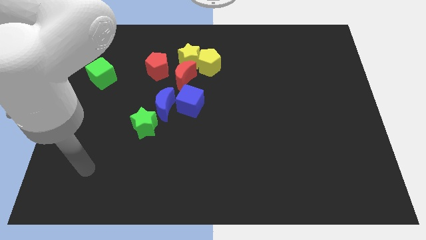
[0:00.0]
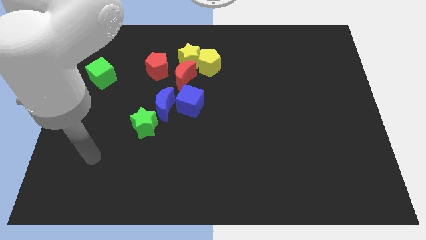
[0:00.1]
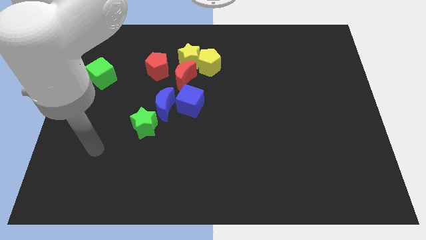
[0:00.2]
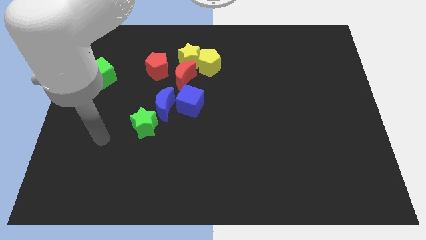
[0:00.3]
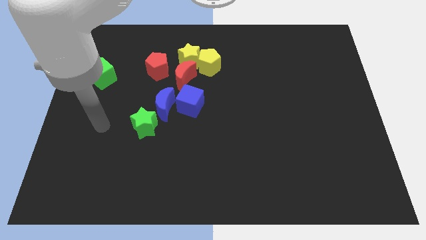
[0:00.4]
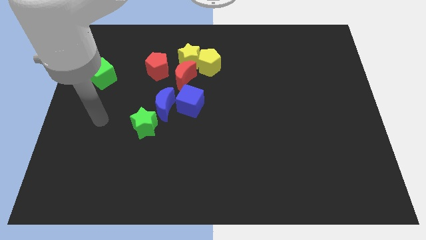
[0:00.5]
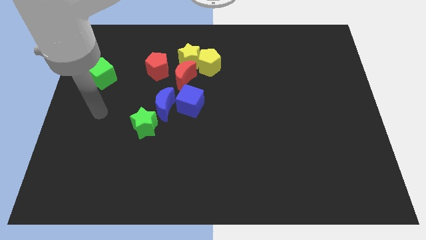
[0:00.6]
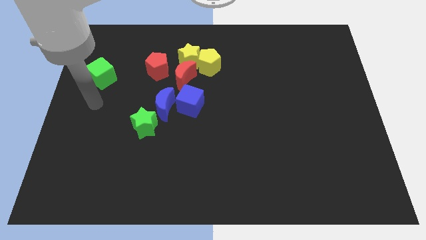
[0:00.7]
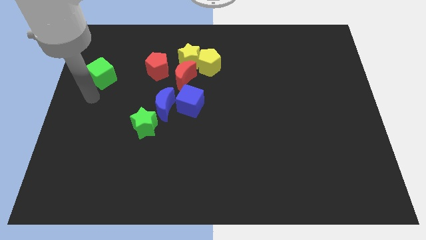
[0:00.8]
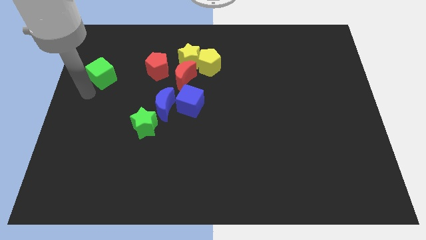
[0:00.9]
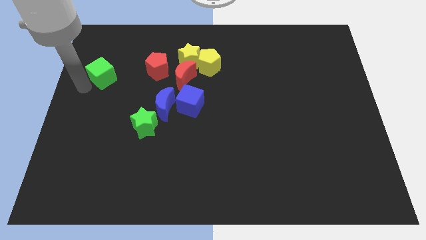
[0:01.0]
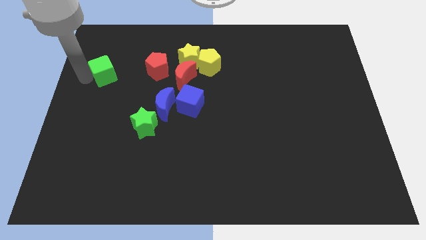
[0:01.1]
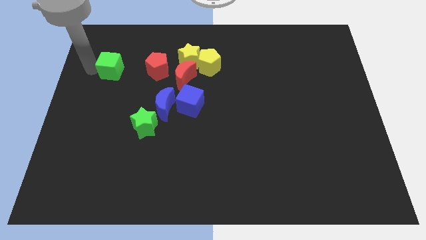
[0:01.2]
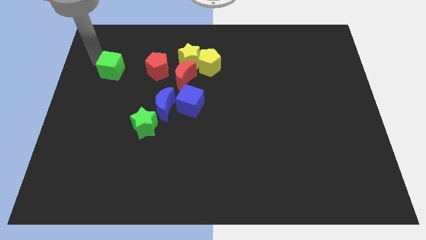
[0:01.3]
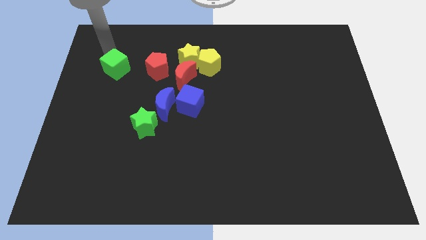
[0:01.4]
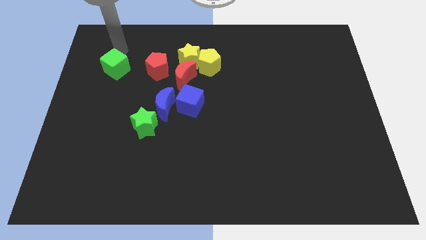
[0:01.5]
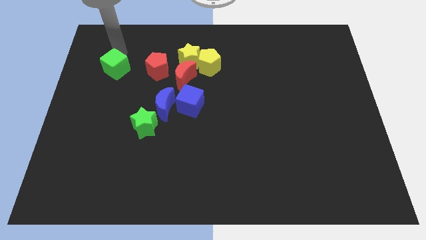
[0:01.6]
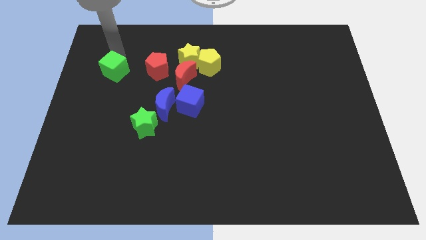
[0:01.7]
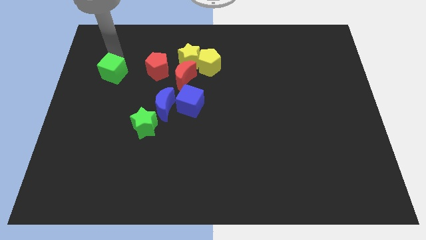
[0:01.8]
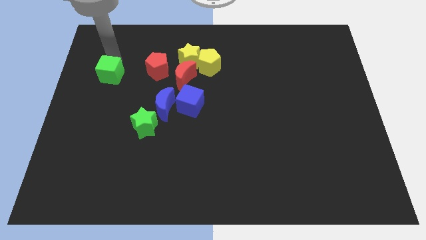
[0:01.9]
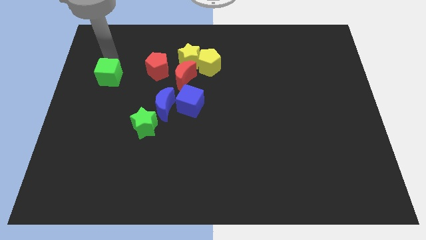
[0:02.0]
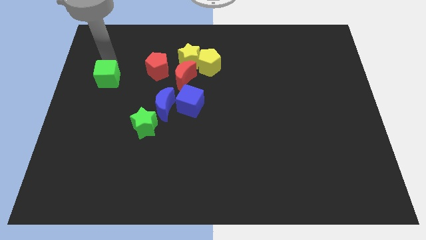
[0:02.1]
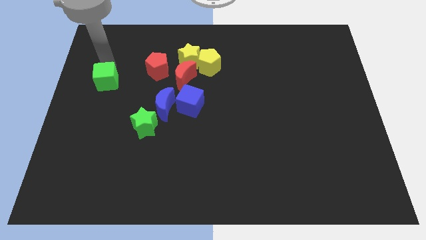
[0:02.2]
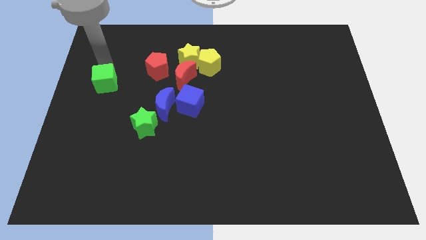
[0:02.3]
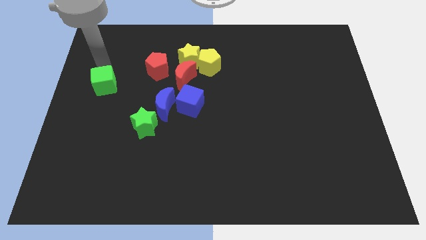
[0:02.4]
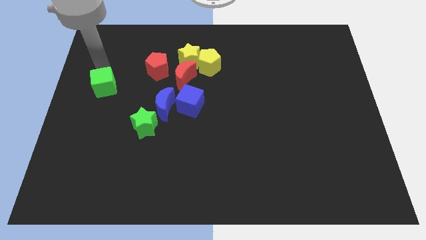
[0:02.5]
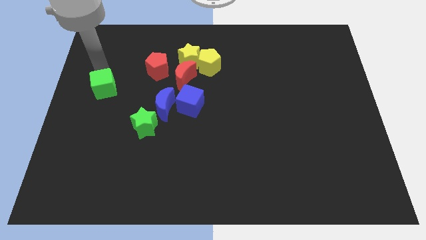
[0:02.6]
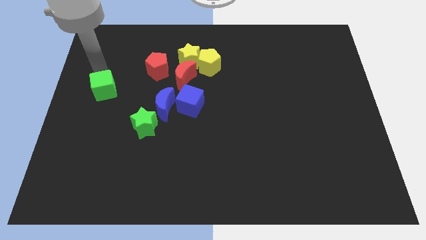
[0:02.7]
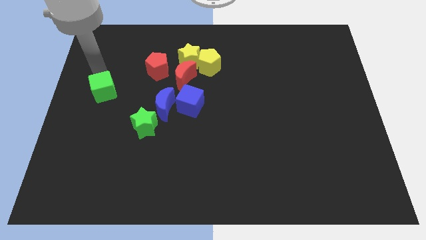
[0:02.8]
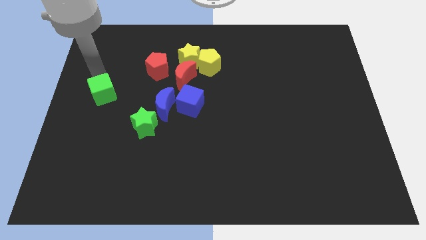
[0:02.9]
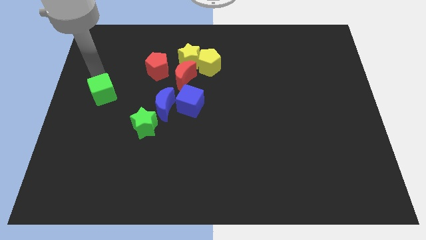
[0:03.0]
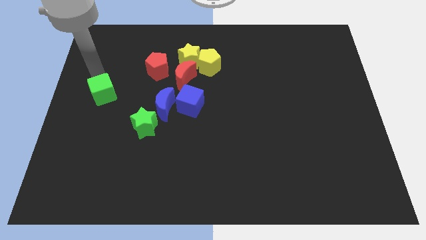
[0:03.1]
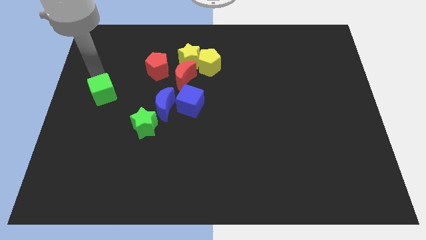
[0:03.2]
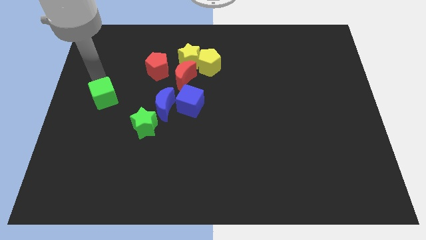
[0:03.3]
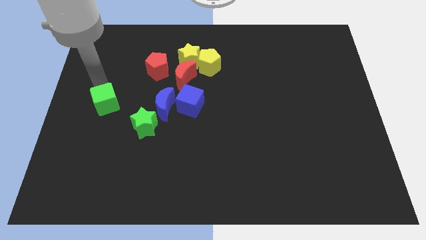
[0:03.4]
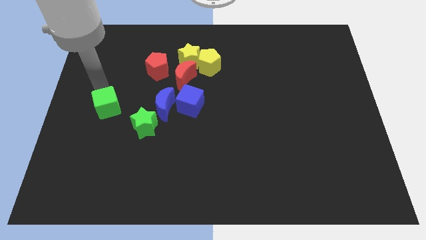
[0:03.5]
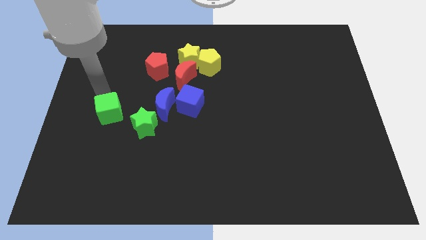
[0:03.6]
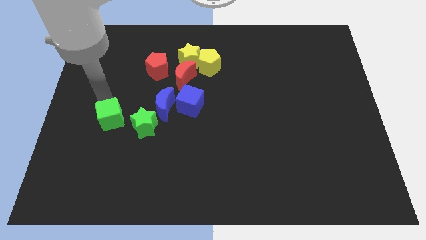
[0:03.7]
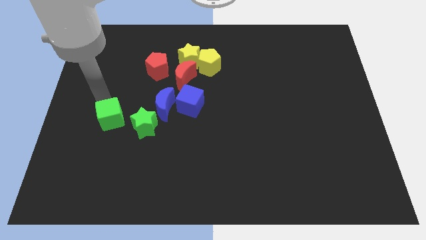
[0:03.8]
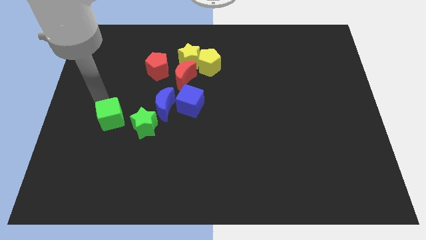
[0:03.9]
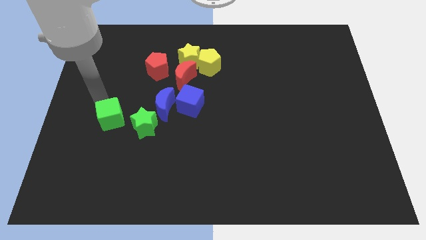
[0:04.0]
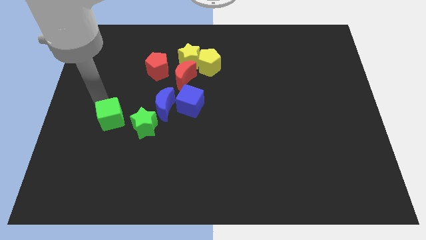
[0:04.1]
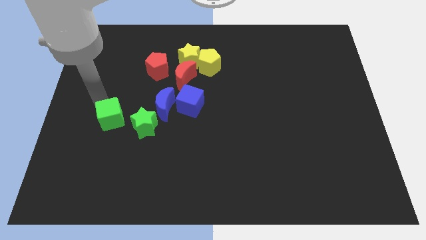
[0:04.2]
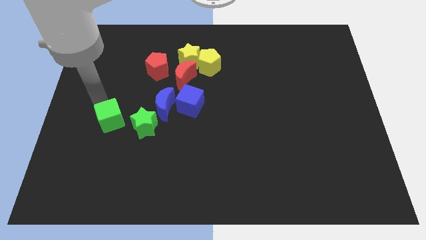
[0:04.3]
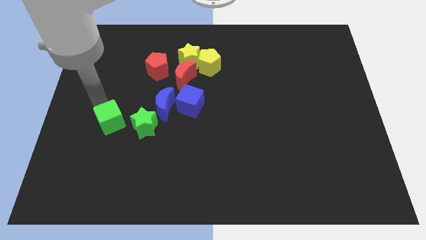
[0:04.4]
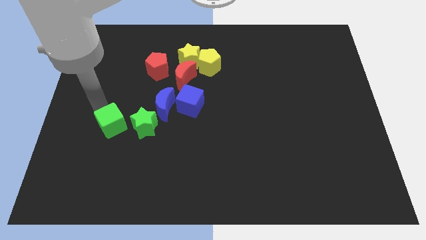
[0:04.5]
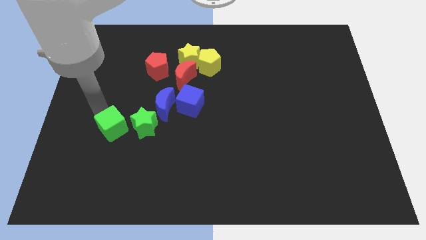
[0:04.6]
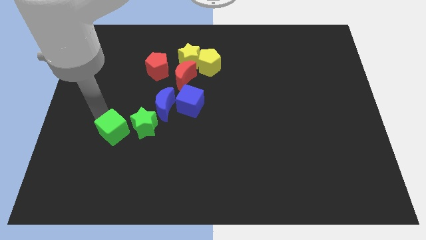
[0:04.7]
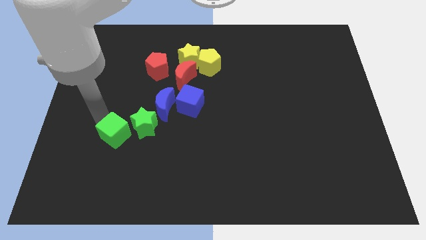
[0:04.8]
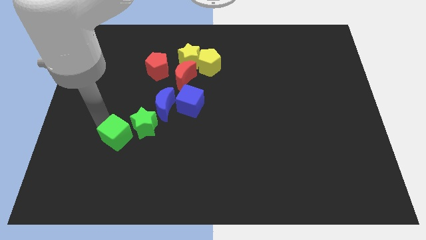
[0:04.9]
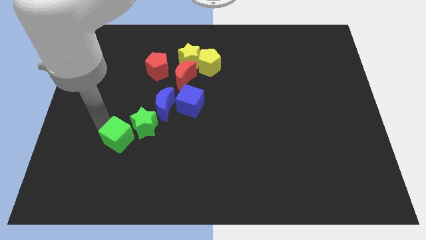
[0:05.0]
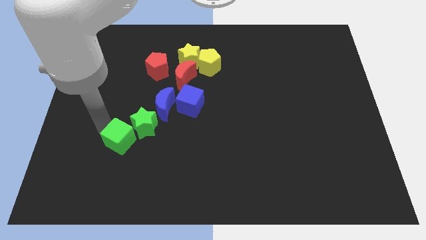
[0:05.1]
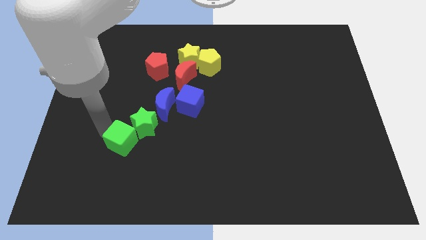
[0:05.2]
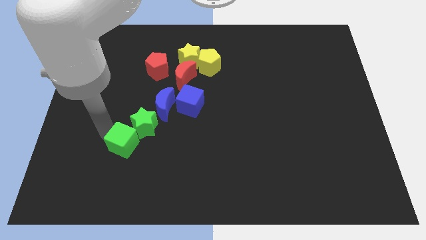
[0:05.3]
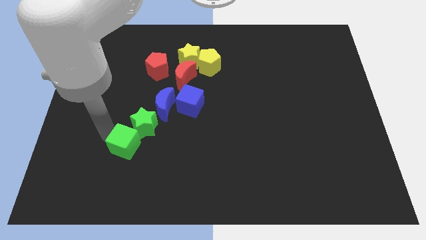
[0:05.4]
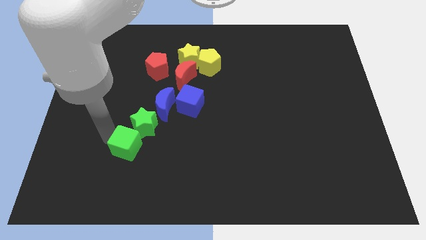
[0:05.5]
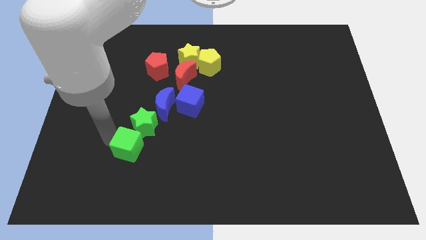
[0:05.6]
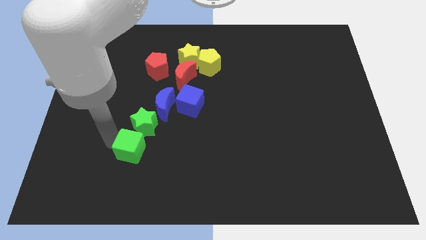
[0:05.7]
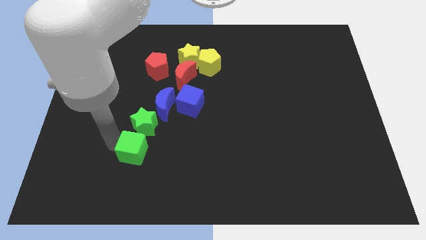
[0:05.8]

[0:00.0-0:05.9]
move the green cube diagonally downwards and to the right

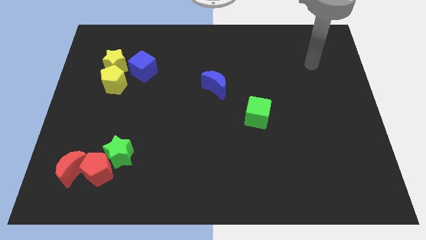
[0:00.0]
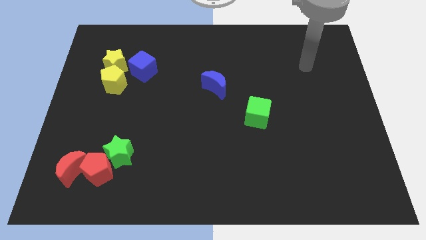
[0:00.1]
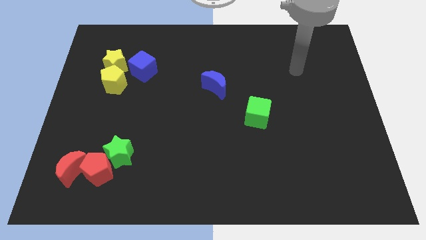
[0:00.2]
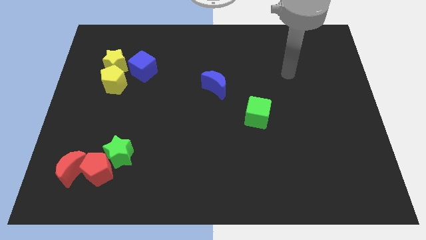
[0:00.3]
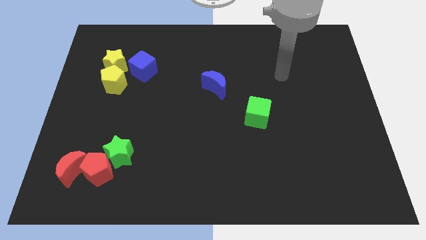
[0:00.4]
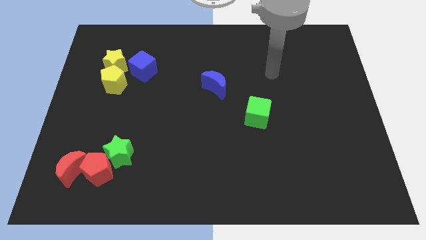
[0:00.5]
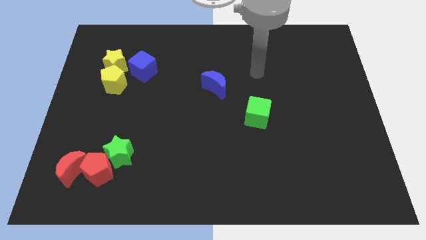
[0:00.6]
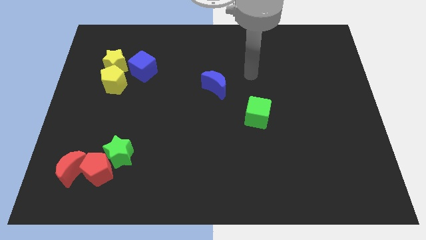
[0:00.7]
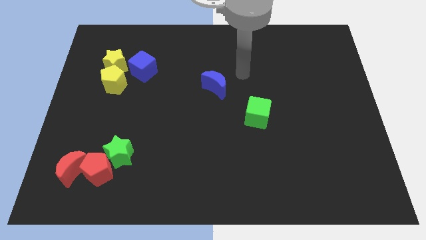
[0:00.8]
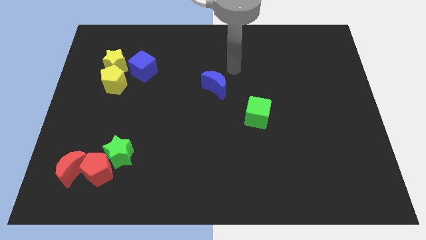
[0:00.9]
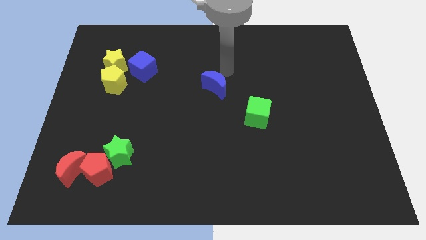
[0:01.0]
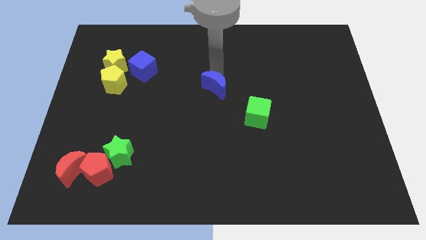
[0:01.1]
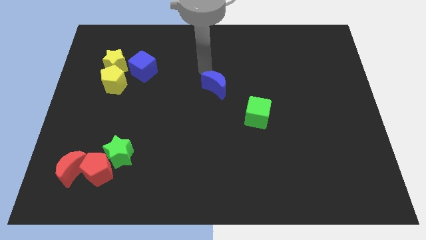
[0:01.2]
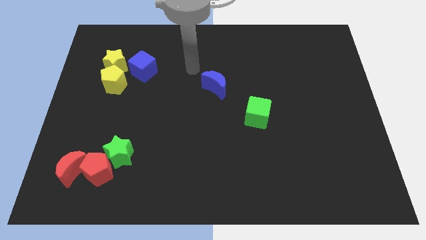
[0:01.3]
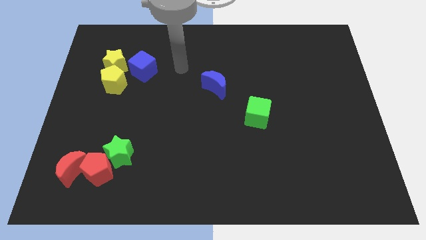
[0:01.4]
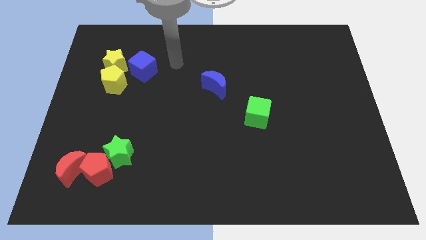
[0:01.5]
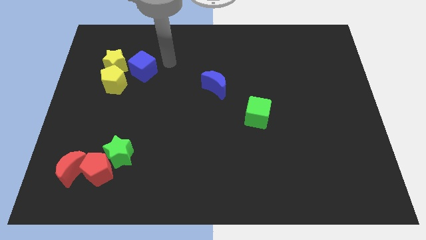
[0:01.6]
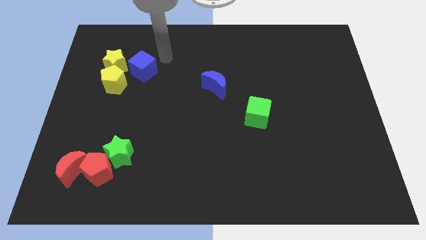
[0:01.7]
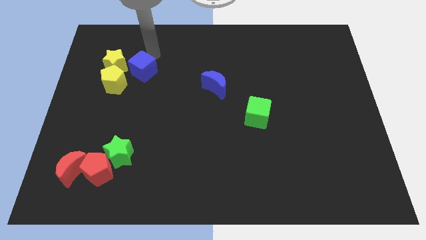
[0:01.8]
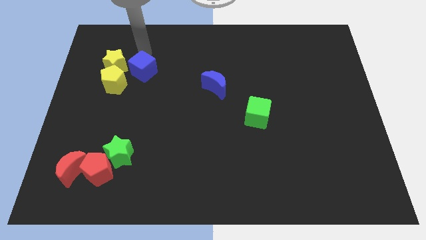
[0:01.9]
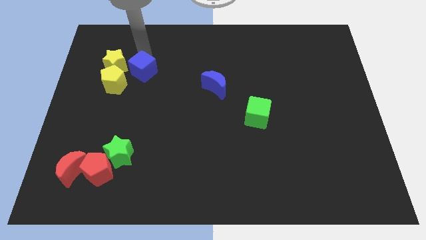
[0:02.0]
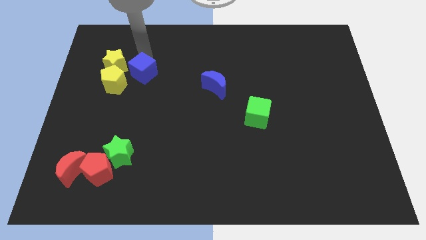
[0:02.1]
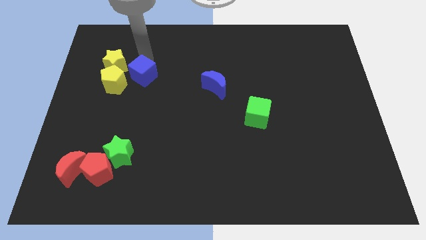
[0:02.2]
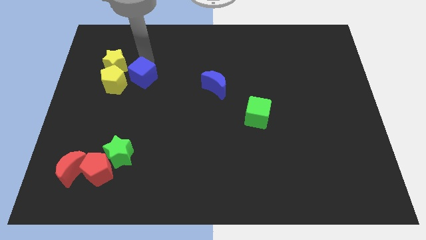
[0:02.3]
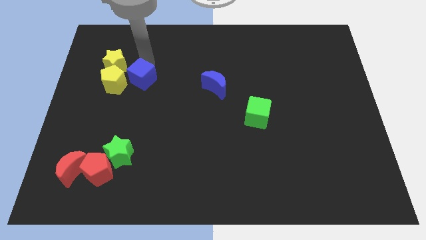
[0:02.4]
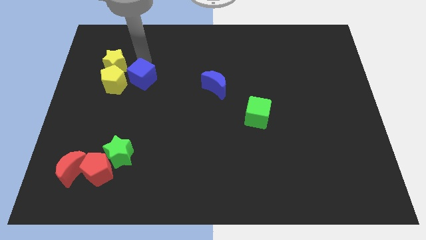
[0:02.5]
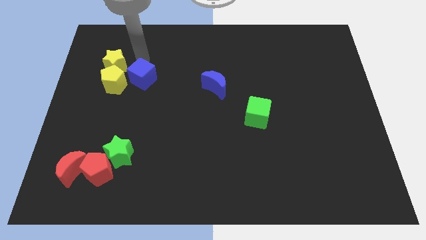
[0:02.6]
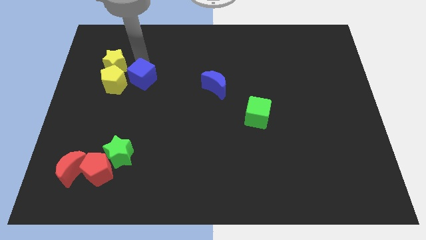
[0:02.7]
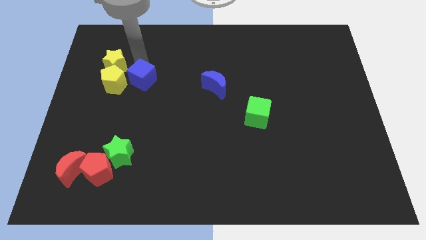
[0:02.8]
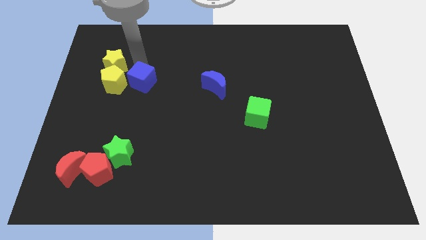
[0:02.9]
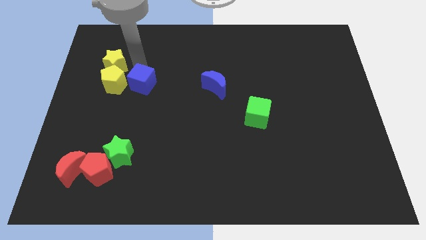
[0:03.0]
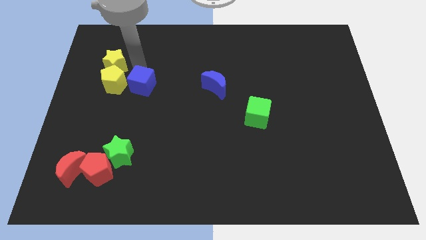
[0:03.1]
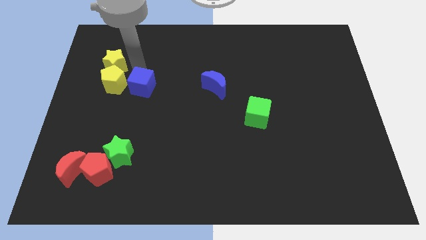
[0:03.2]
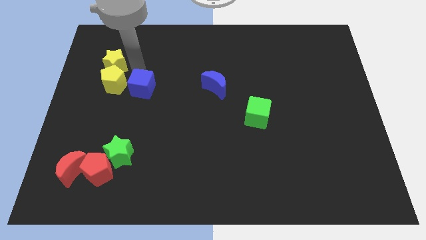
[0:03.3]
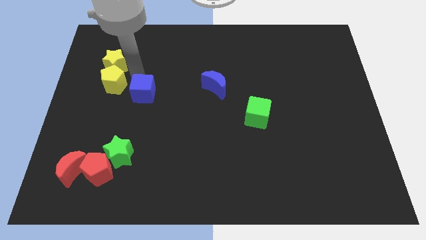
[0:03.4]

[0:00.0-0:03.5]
slide the blue cube a little downwards
